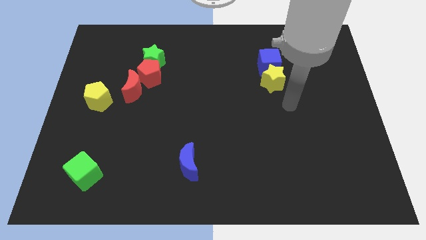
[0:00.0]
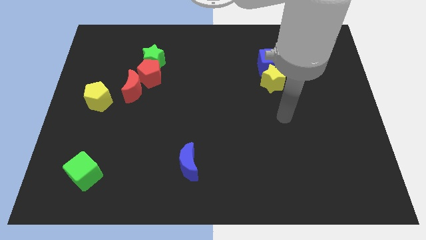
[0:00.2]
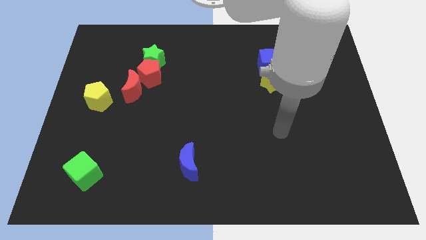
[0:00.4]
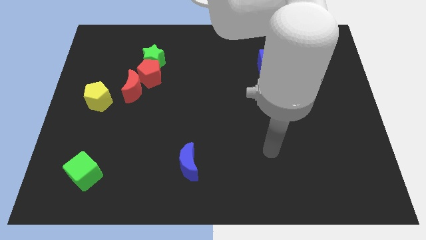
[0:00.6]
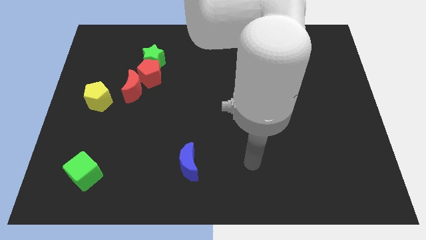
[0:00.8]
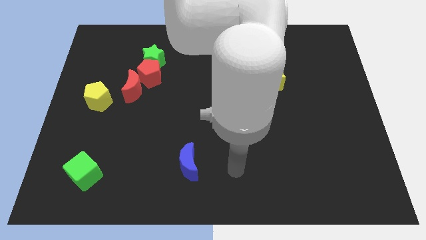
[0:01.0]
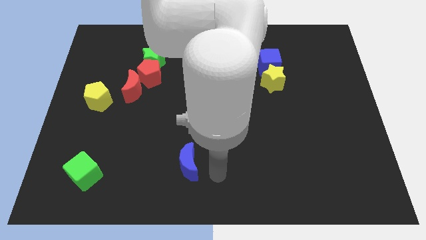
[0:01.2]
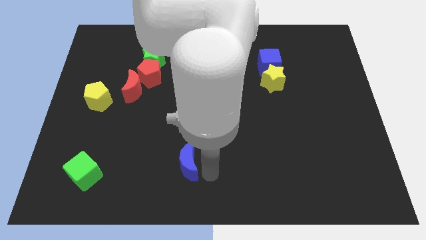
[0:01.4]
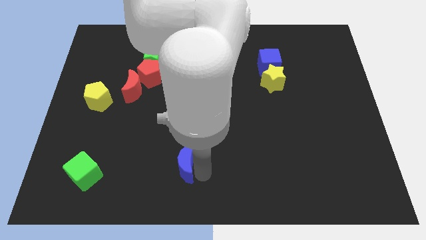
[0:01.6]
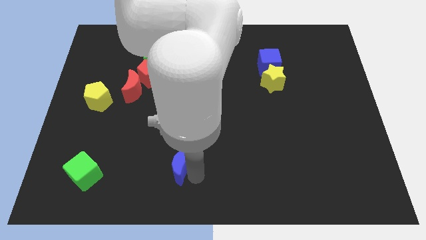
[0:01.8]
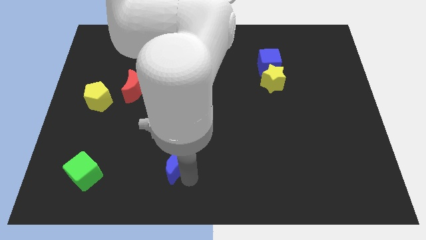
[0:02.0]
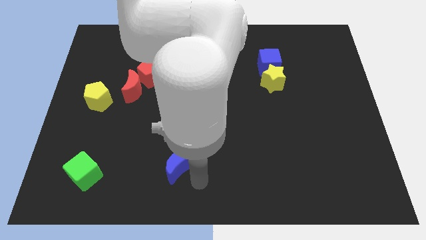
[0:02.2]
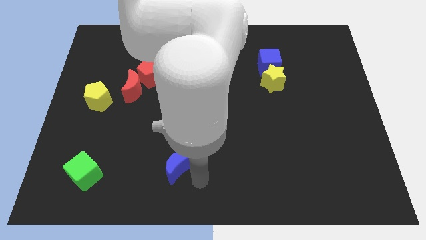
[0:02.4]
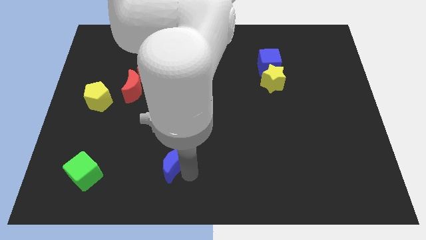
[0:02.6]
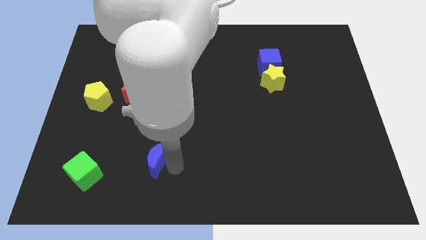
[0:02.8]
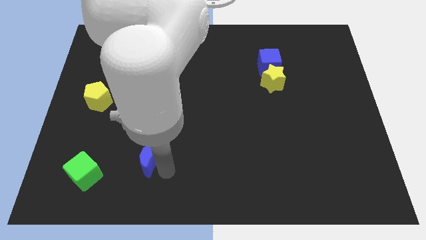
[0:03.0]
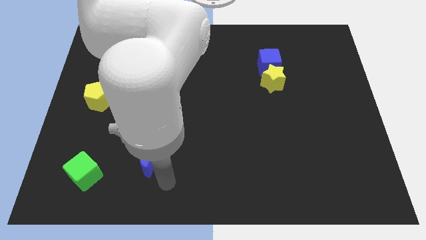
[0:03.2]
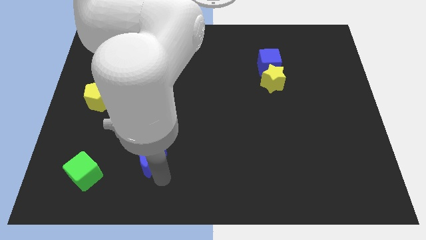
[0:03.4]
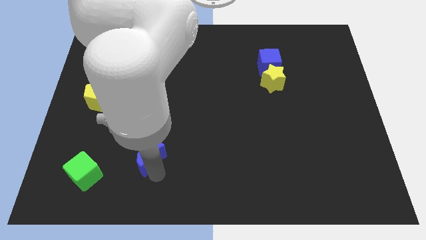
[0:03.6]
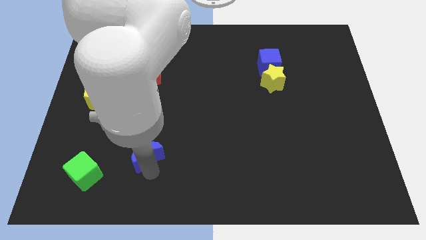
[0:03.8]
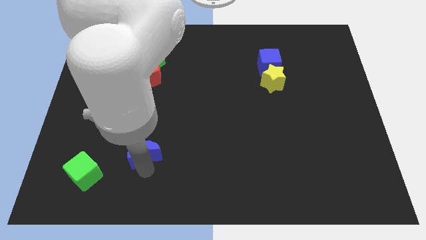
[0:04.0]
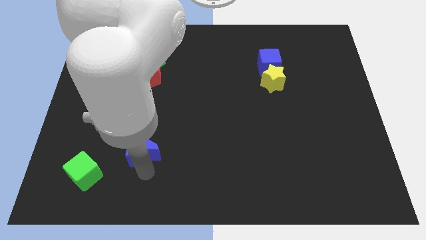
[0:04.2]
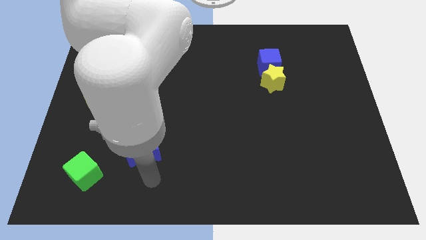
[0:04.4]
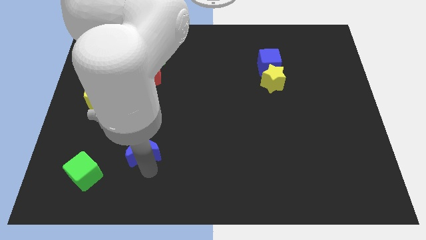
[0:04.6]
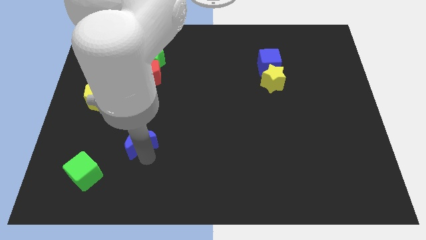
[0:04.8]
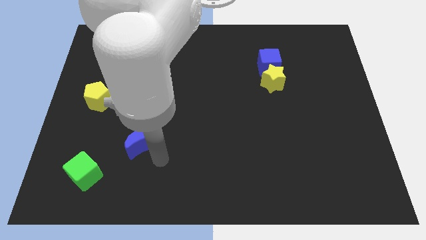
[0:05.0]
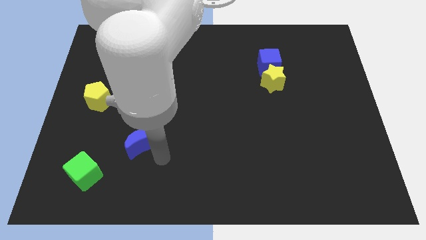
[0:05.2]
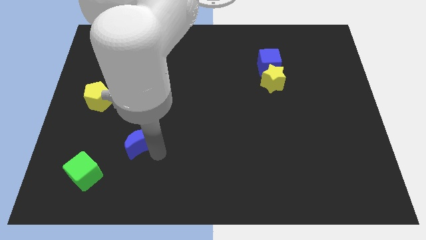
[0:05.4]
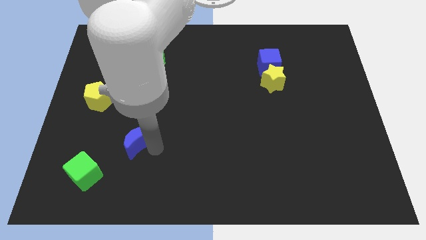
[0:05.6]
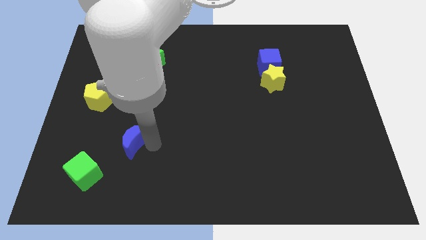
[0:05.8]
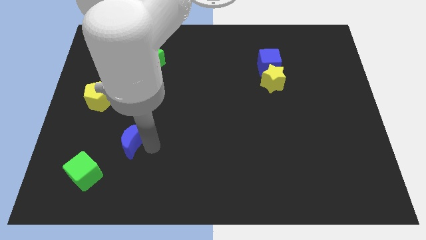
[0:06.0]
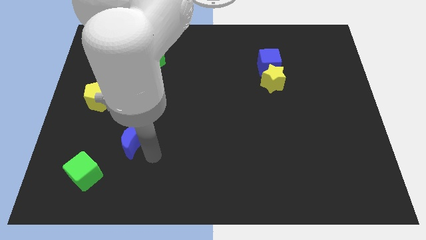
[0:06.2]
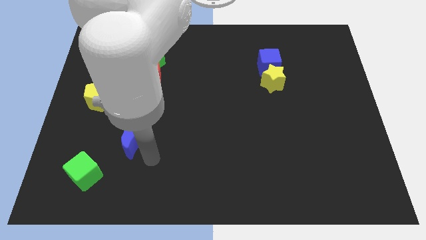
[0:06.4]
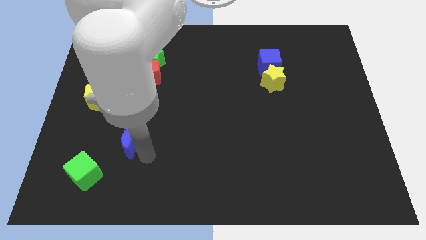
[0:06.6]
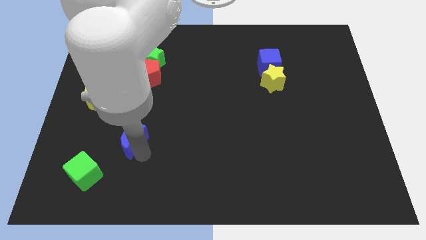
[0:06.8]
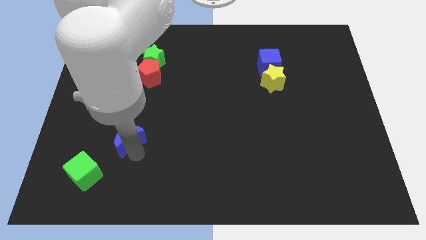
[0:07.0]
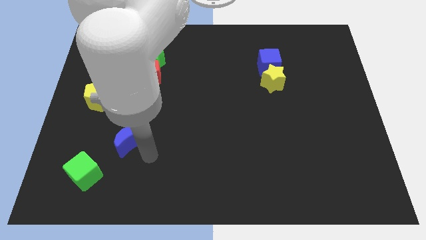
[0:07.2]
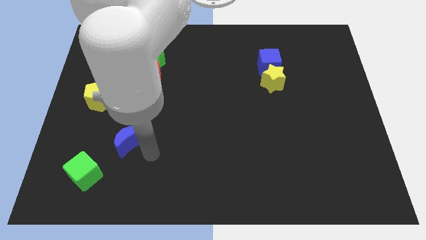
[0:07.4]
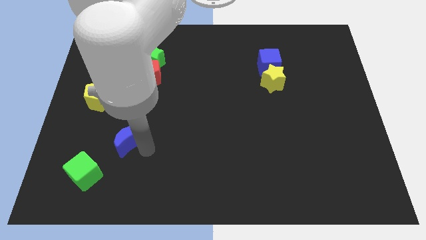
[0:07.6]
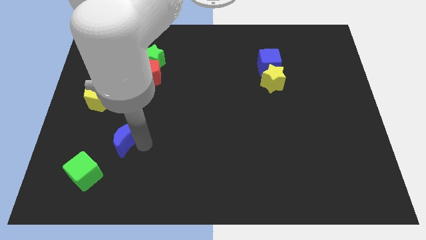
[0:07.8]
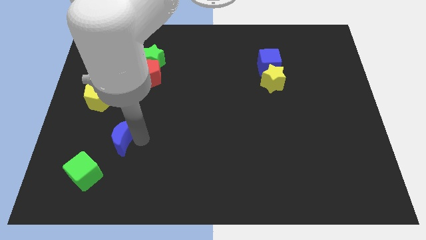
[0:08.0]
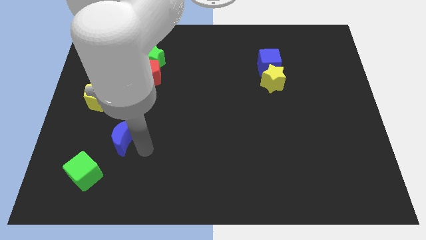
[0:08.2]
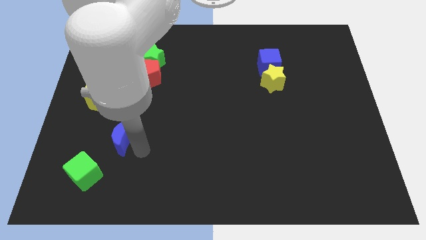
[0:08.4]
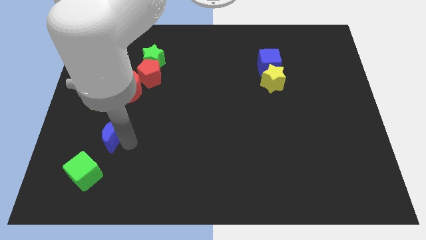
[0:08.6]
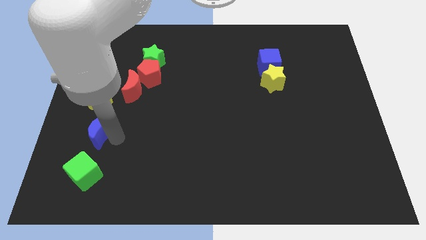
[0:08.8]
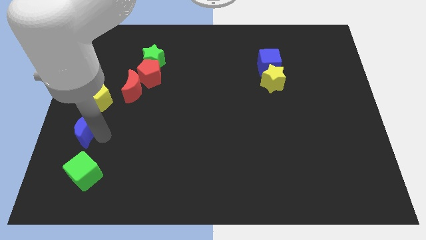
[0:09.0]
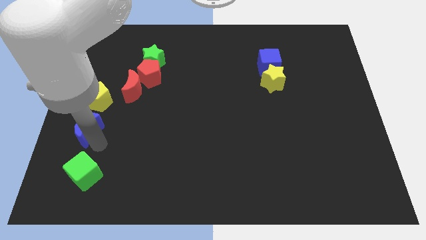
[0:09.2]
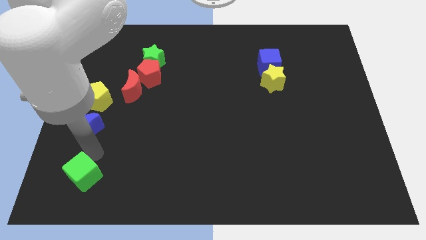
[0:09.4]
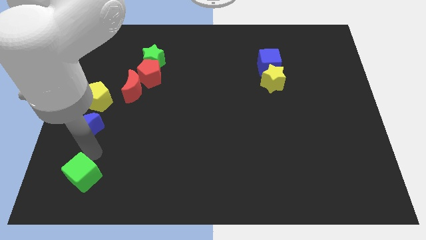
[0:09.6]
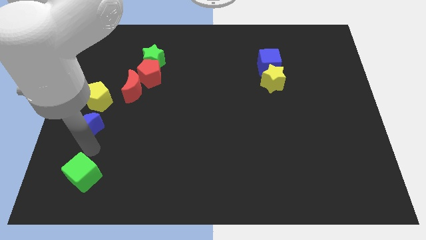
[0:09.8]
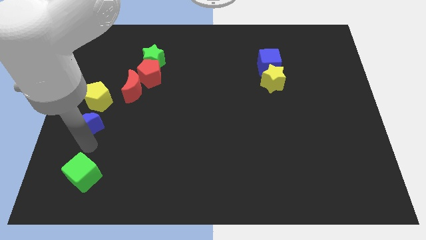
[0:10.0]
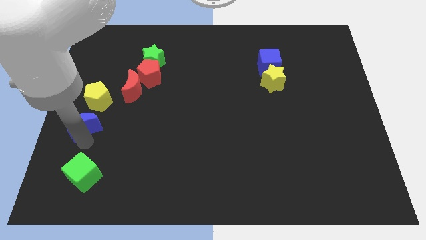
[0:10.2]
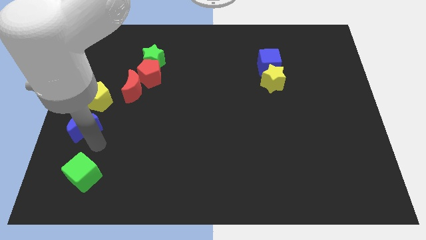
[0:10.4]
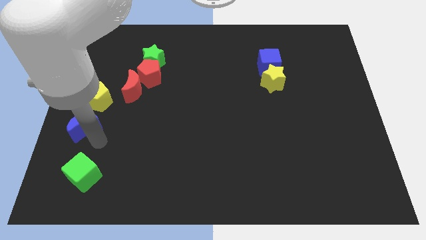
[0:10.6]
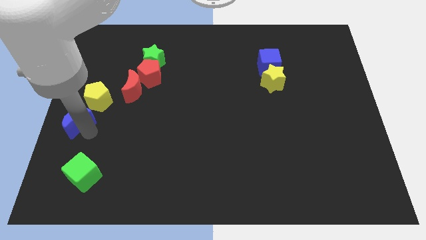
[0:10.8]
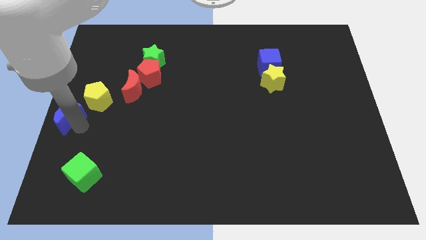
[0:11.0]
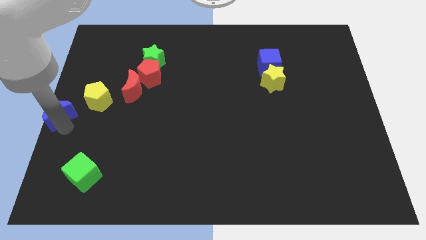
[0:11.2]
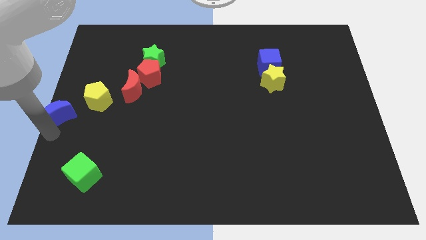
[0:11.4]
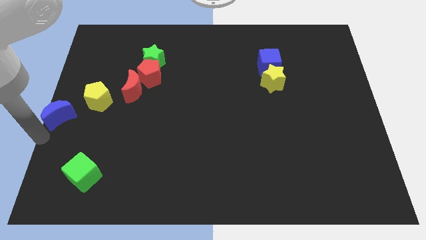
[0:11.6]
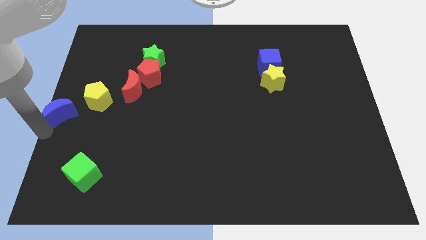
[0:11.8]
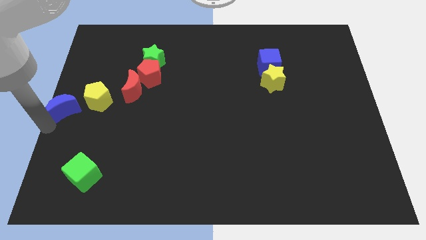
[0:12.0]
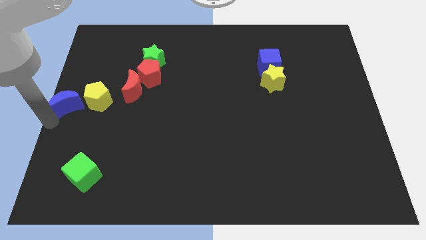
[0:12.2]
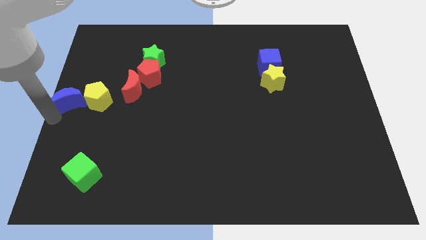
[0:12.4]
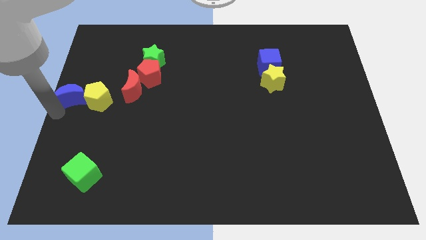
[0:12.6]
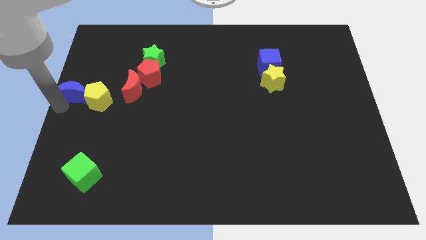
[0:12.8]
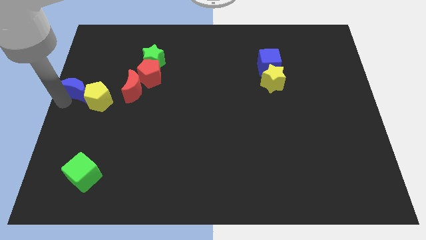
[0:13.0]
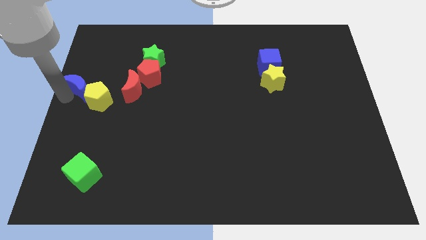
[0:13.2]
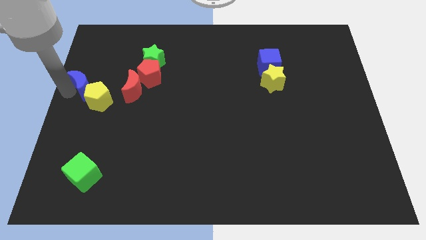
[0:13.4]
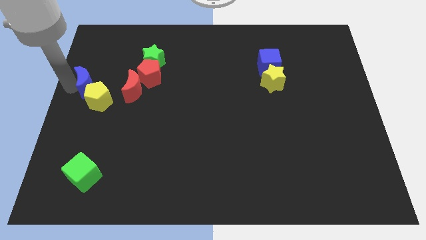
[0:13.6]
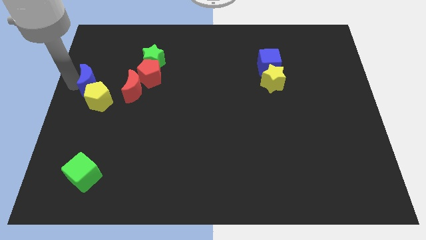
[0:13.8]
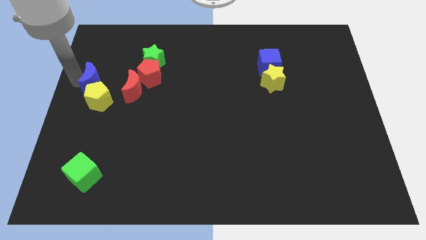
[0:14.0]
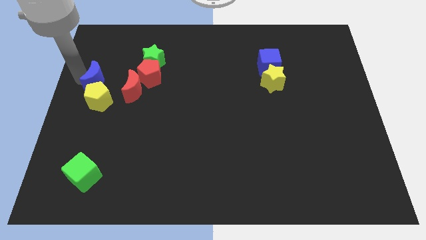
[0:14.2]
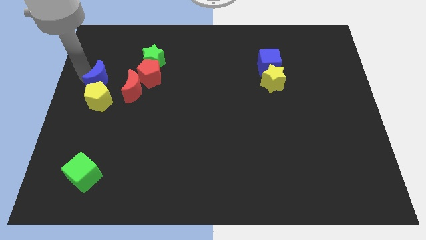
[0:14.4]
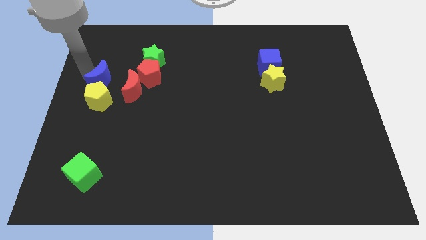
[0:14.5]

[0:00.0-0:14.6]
put the blue moon to the top right side of the yellow pentagon
